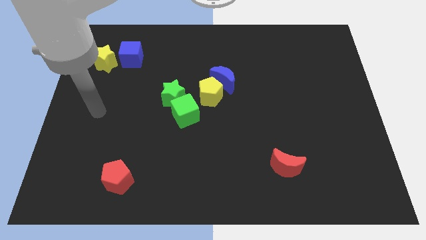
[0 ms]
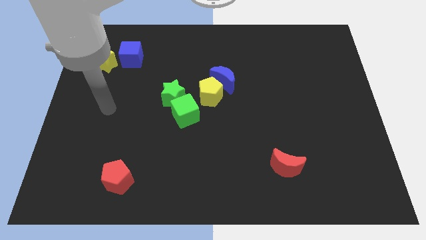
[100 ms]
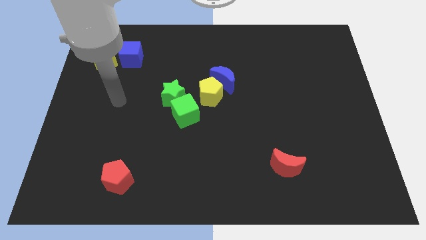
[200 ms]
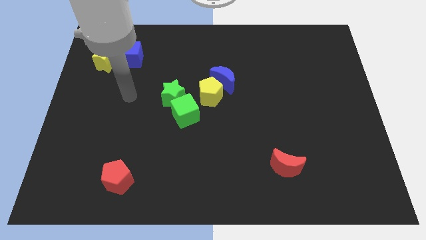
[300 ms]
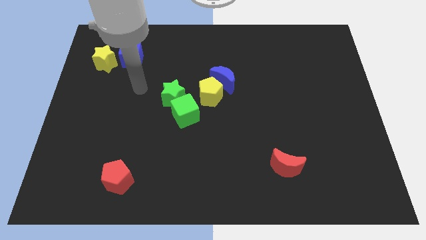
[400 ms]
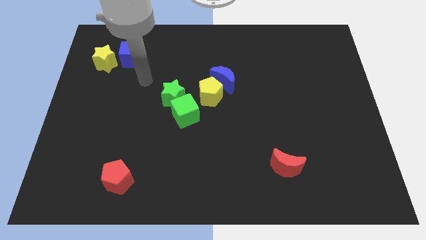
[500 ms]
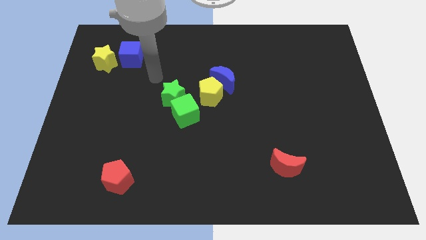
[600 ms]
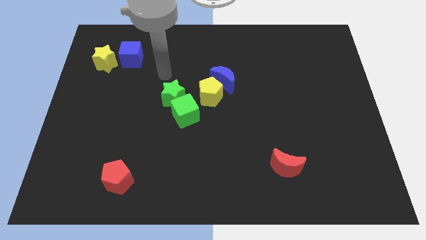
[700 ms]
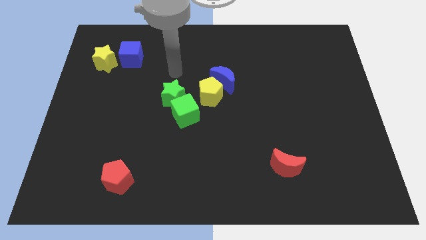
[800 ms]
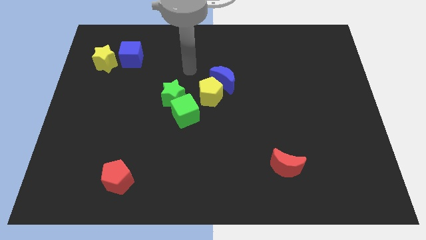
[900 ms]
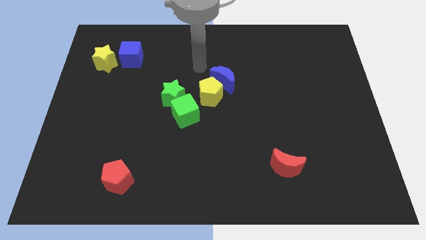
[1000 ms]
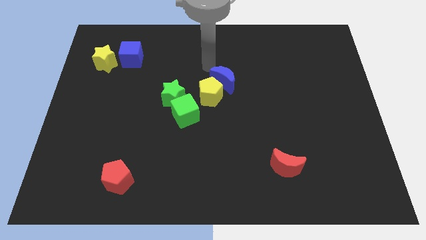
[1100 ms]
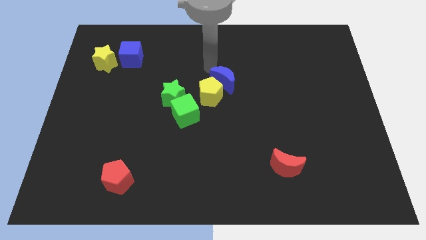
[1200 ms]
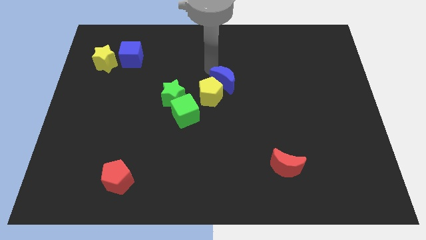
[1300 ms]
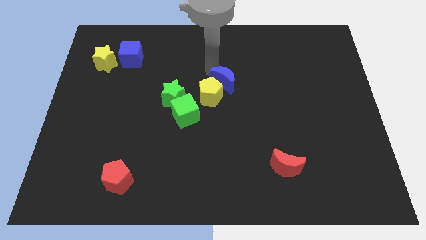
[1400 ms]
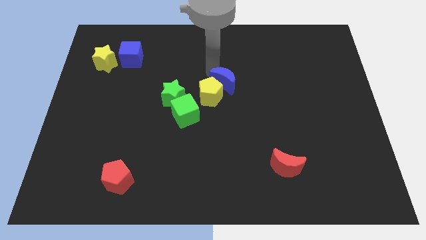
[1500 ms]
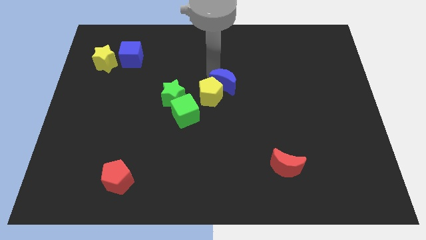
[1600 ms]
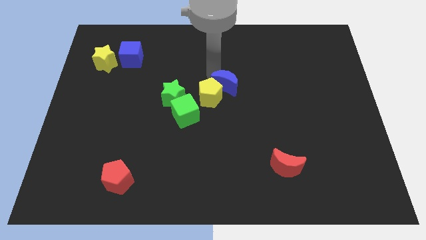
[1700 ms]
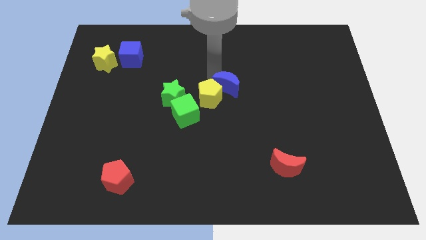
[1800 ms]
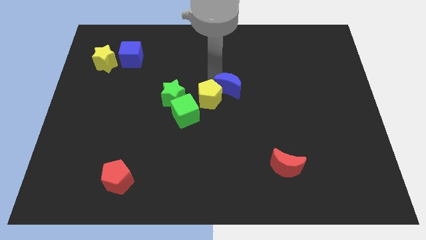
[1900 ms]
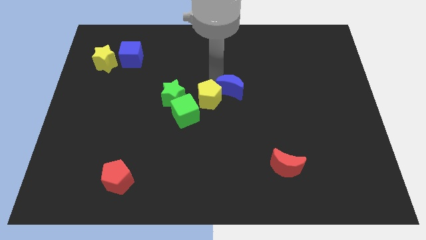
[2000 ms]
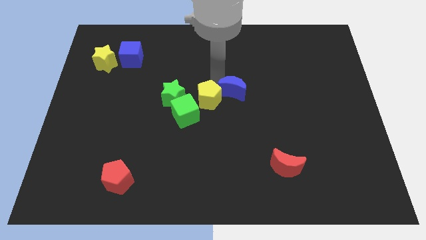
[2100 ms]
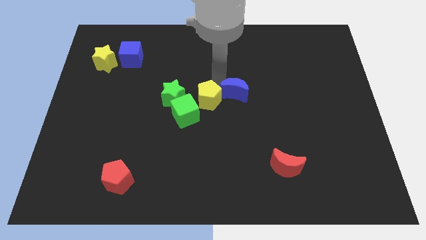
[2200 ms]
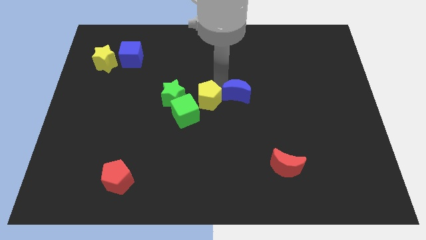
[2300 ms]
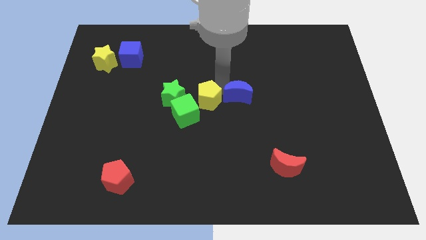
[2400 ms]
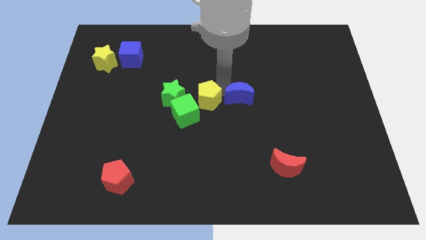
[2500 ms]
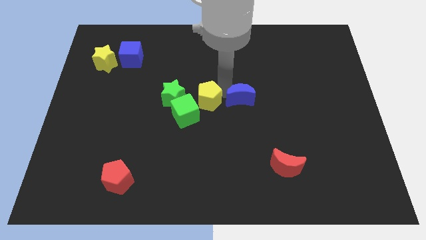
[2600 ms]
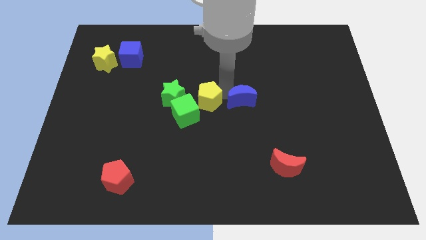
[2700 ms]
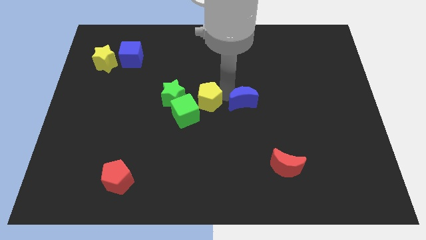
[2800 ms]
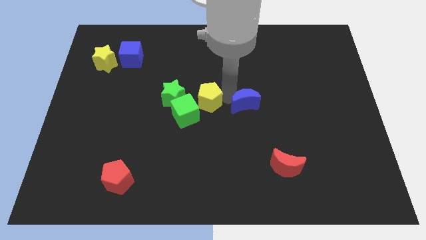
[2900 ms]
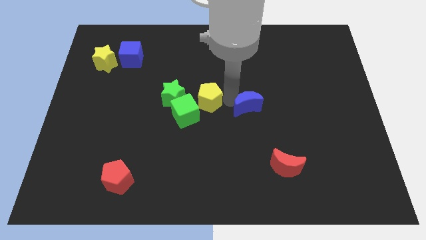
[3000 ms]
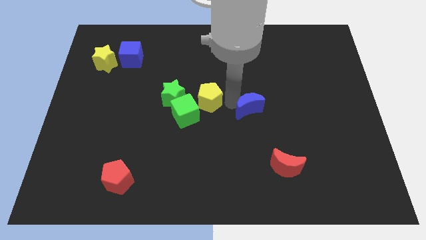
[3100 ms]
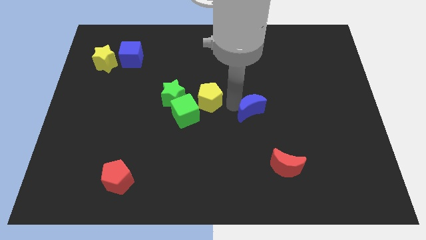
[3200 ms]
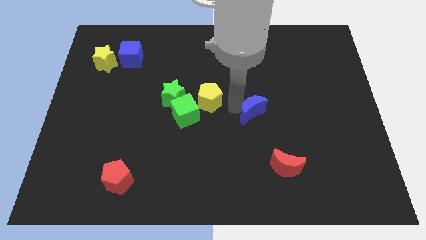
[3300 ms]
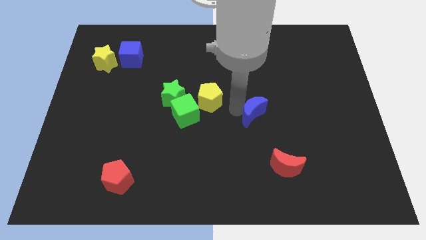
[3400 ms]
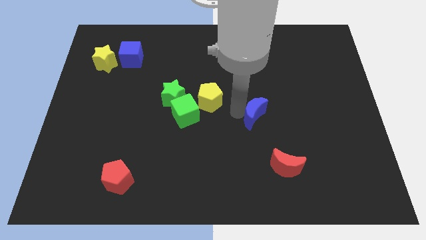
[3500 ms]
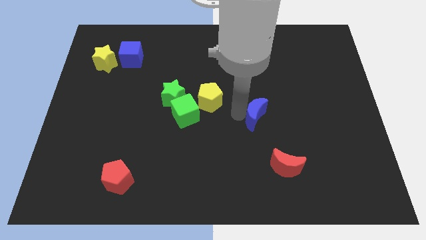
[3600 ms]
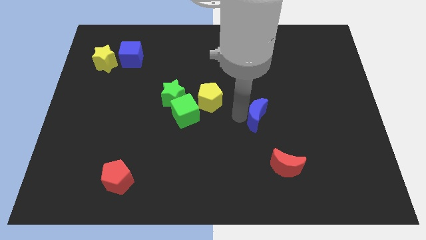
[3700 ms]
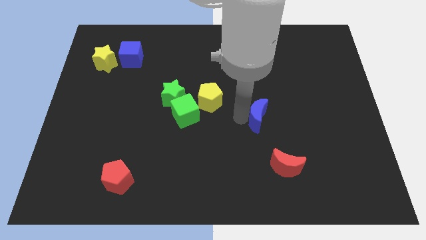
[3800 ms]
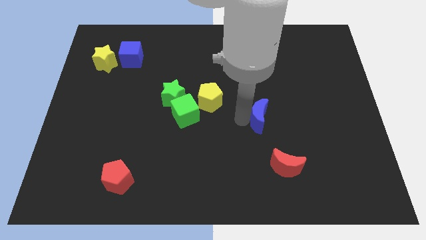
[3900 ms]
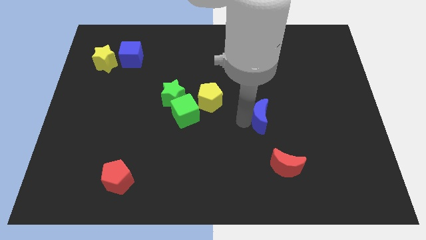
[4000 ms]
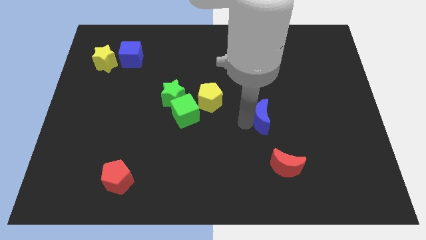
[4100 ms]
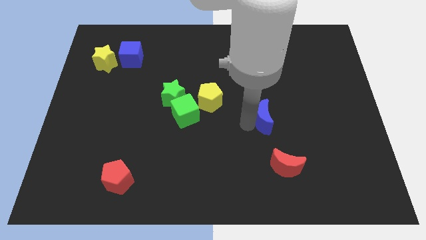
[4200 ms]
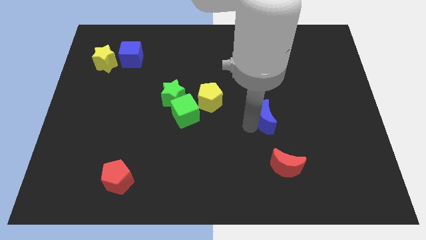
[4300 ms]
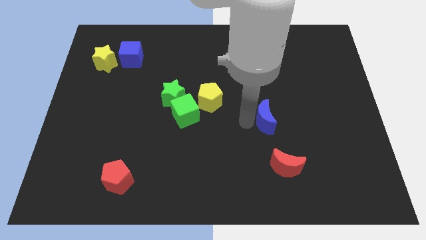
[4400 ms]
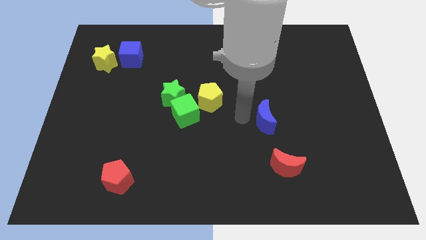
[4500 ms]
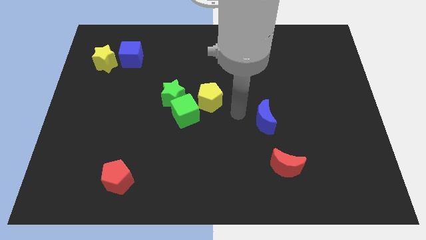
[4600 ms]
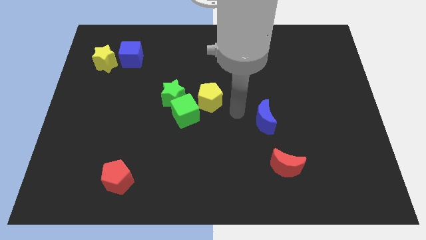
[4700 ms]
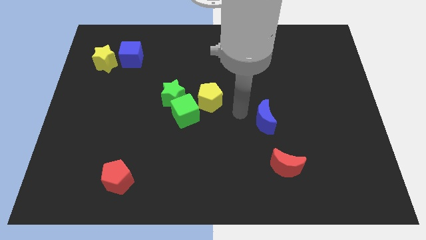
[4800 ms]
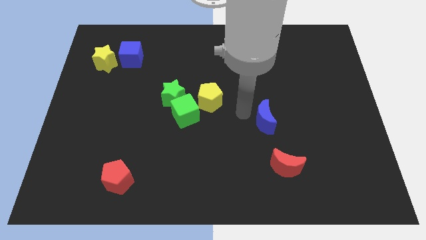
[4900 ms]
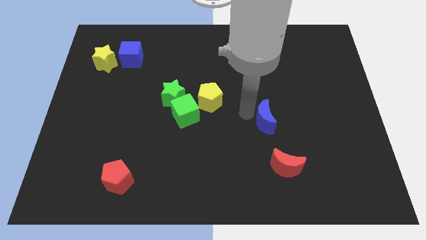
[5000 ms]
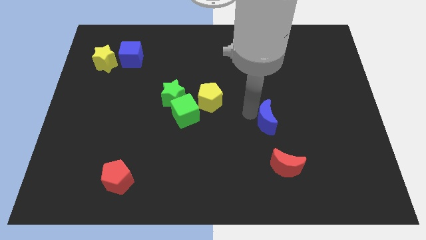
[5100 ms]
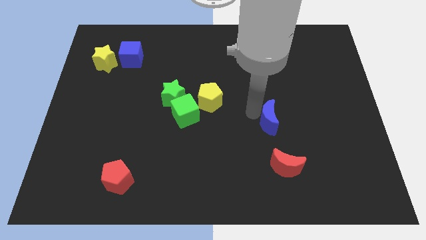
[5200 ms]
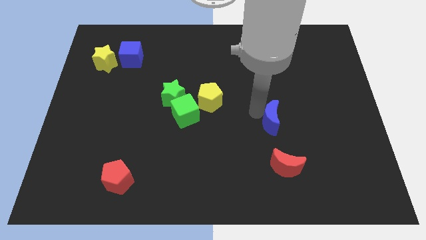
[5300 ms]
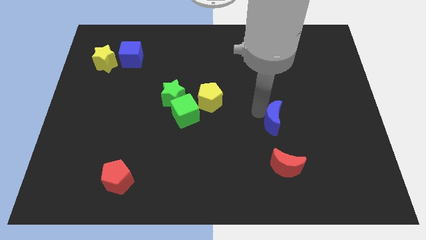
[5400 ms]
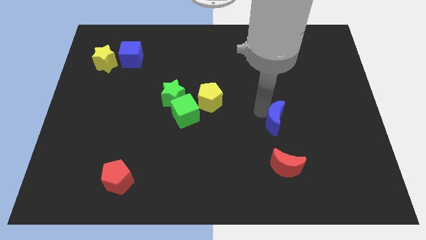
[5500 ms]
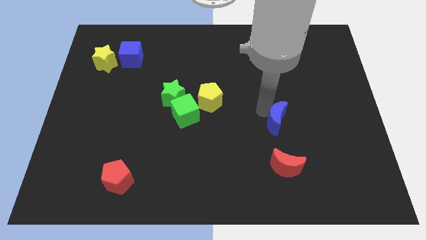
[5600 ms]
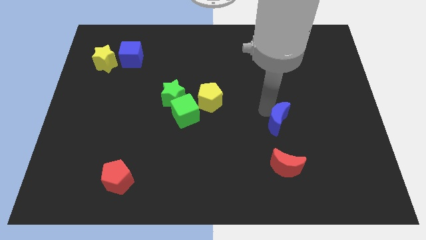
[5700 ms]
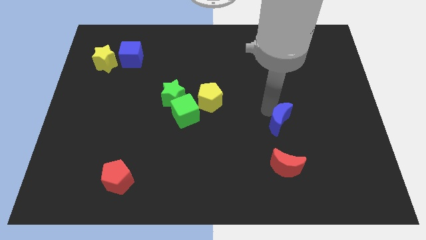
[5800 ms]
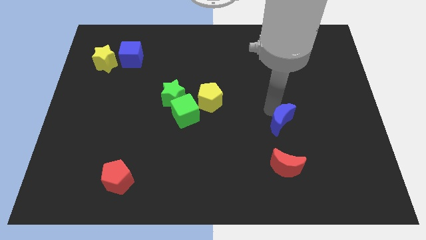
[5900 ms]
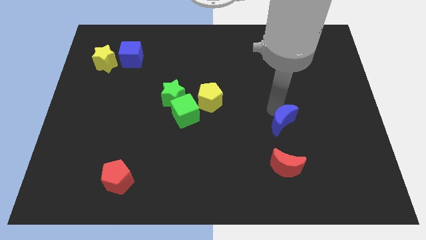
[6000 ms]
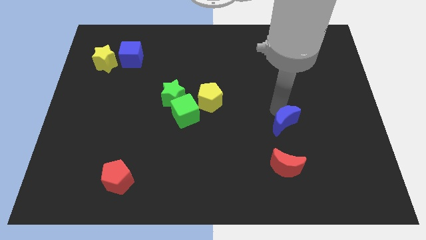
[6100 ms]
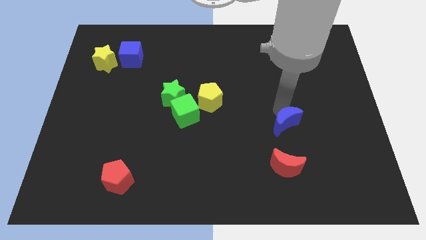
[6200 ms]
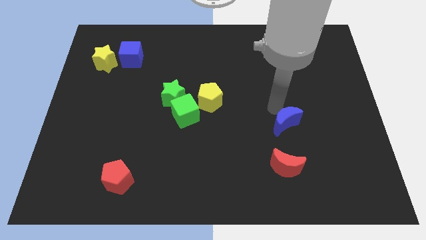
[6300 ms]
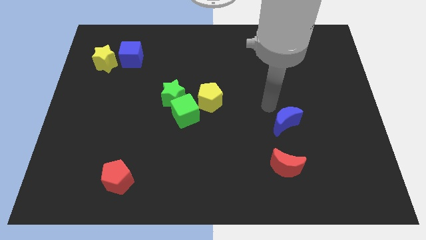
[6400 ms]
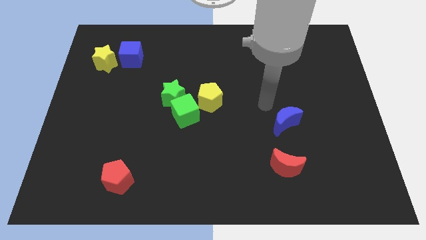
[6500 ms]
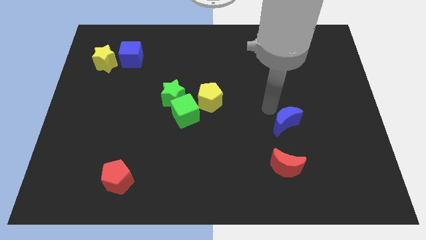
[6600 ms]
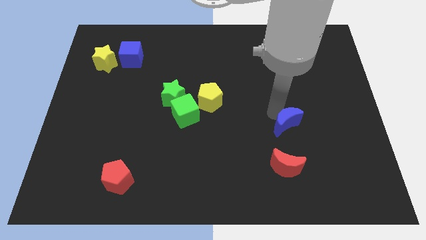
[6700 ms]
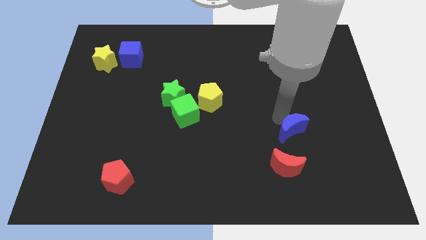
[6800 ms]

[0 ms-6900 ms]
push the blue moon downwards and to the right

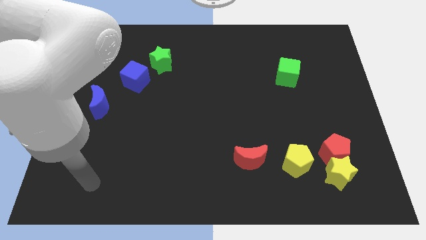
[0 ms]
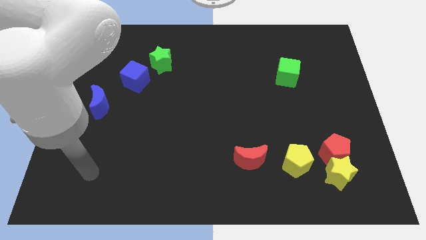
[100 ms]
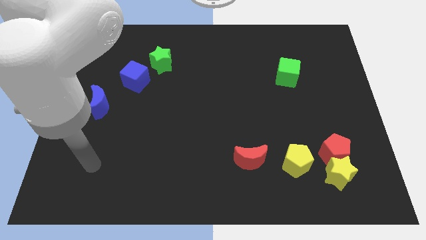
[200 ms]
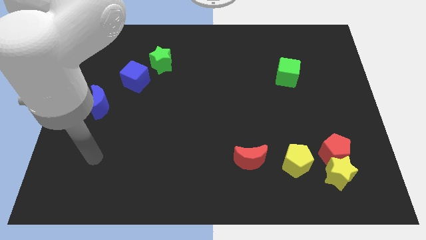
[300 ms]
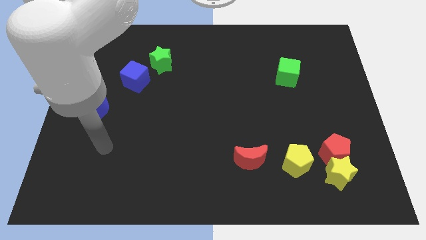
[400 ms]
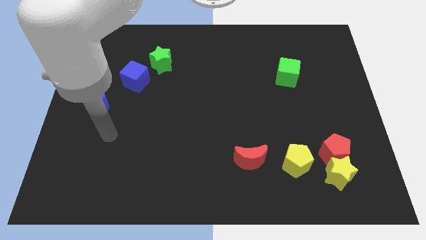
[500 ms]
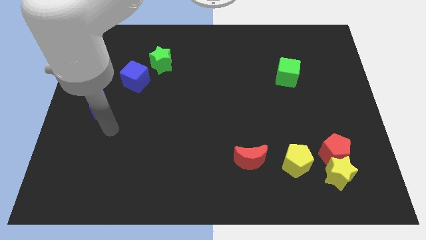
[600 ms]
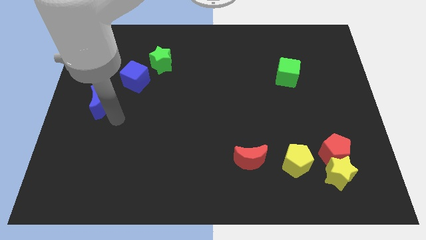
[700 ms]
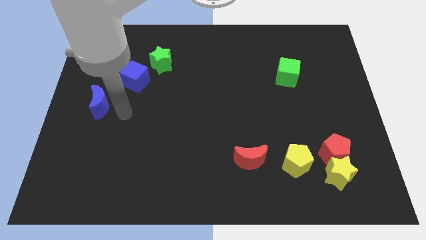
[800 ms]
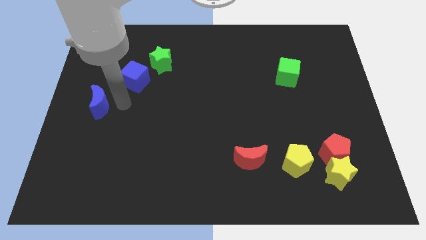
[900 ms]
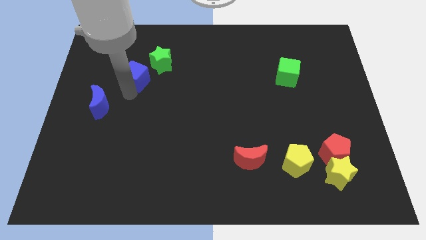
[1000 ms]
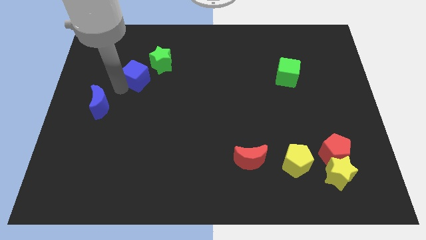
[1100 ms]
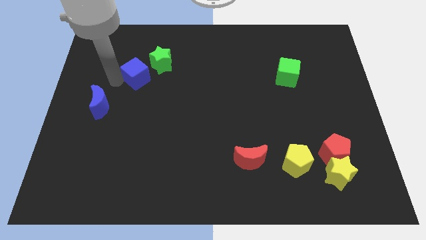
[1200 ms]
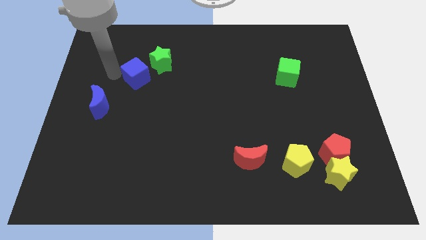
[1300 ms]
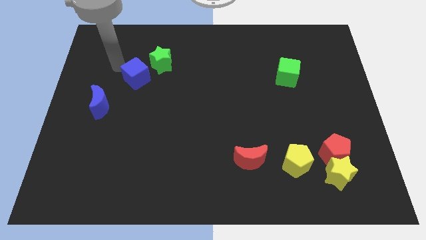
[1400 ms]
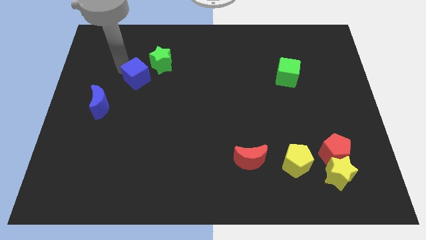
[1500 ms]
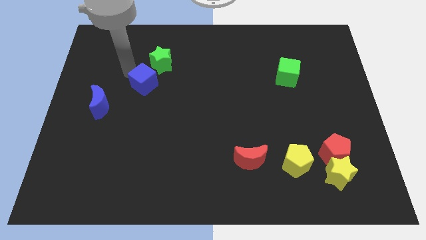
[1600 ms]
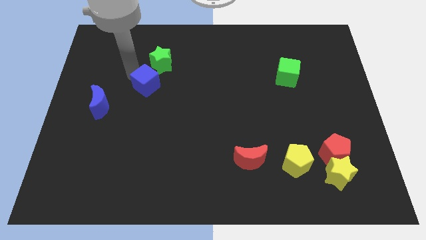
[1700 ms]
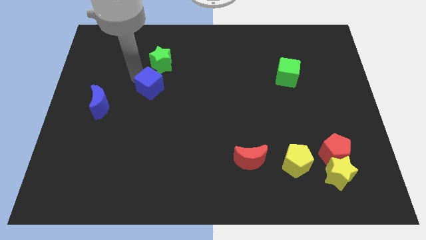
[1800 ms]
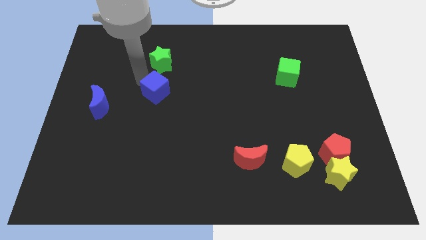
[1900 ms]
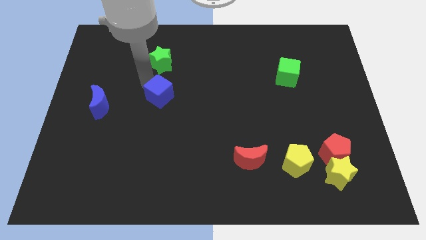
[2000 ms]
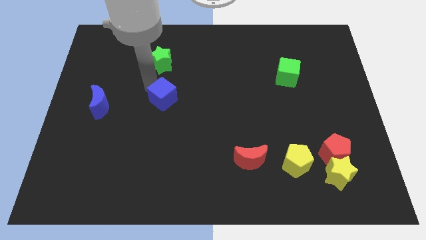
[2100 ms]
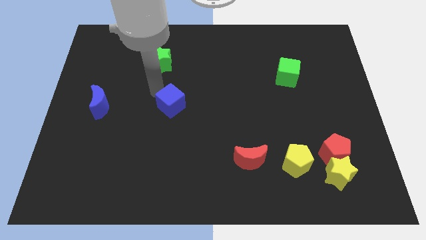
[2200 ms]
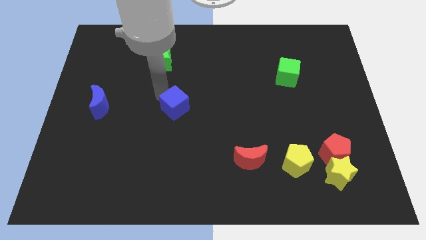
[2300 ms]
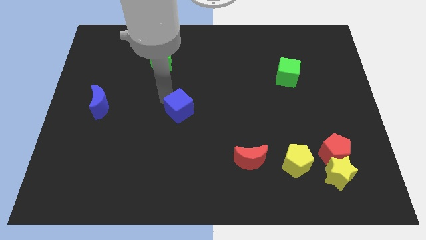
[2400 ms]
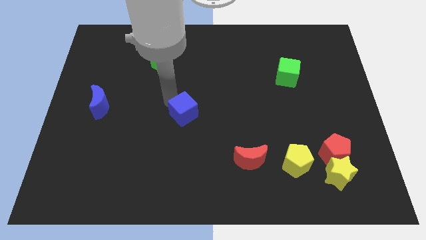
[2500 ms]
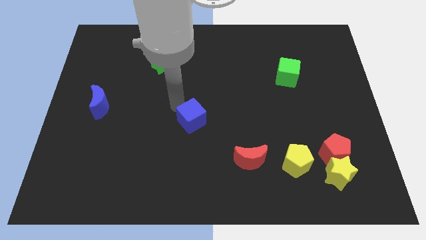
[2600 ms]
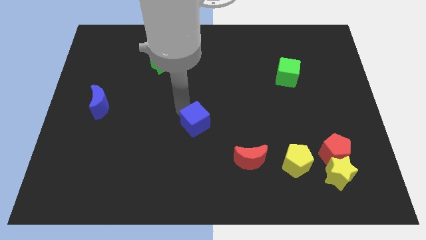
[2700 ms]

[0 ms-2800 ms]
slide the blue cube downwards and right diagonally
